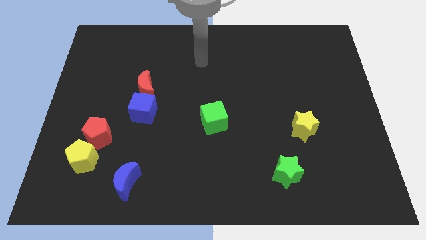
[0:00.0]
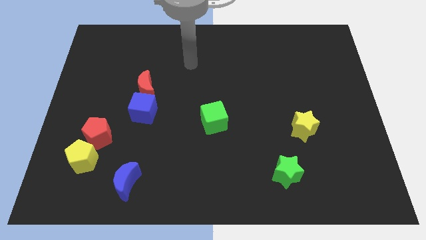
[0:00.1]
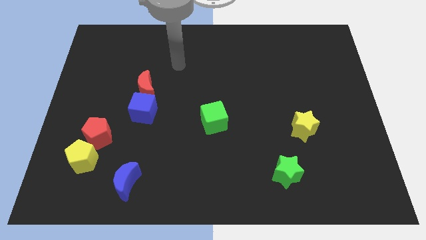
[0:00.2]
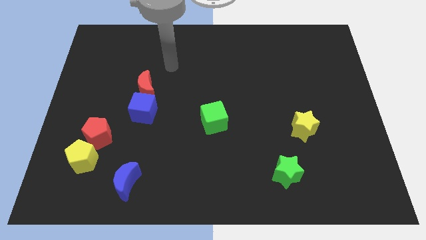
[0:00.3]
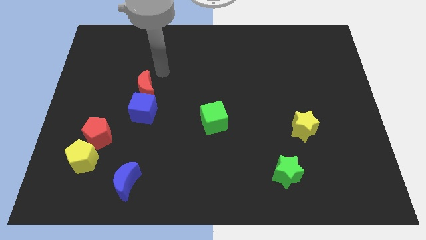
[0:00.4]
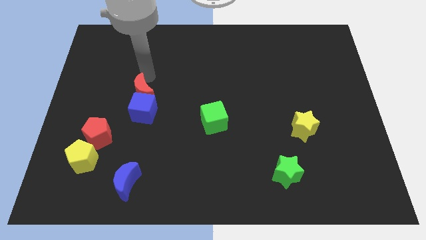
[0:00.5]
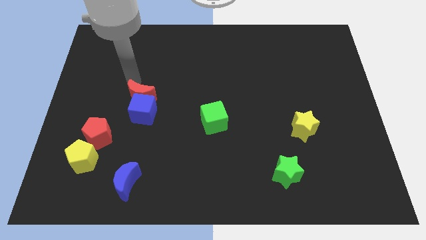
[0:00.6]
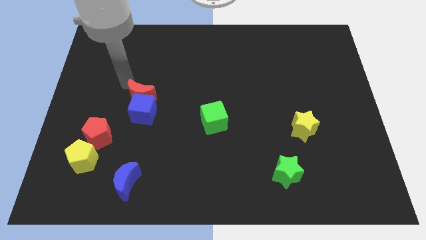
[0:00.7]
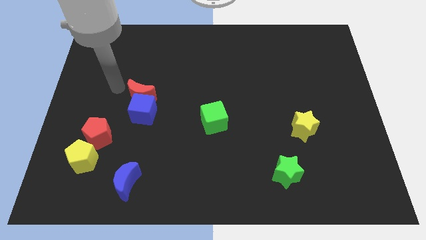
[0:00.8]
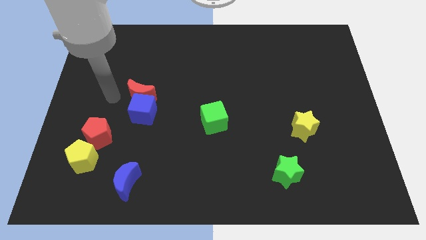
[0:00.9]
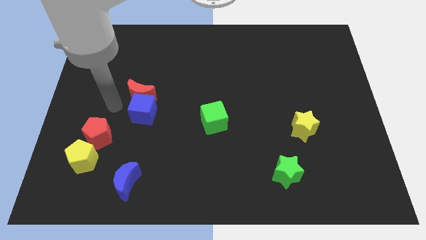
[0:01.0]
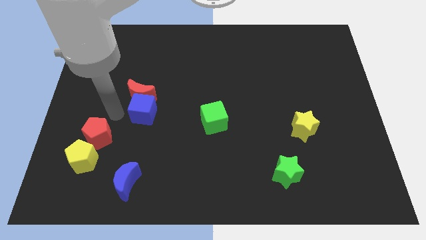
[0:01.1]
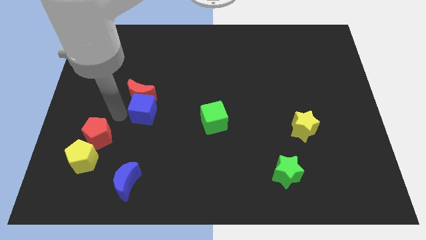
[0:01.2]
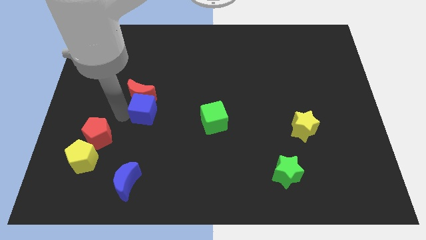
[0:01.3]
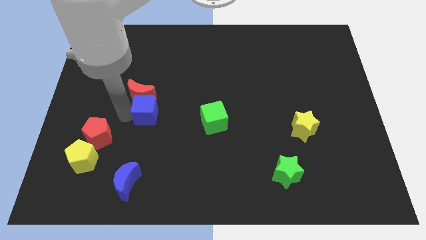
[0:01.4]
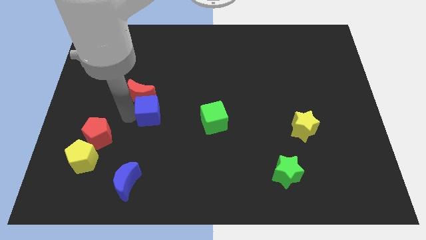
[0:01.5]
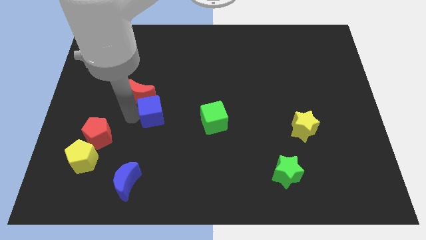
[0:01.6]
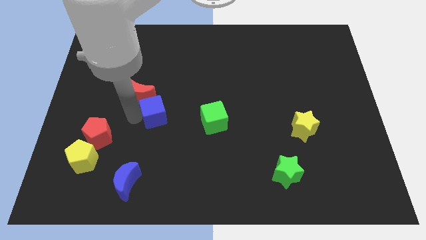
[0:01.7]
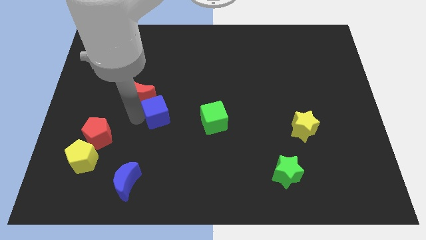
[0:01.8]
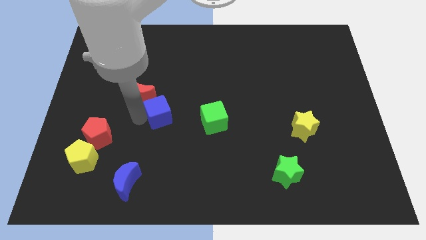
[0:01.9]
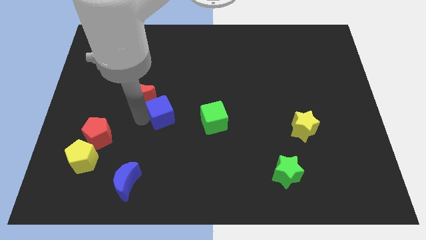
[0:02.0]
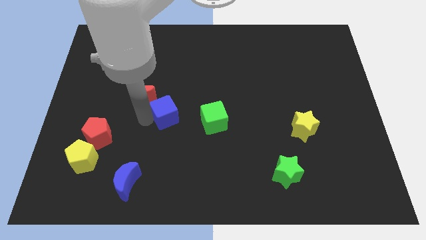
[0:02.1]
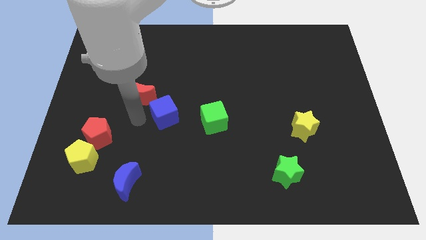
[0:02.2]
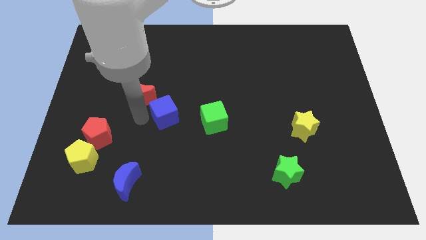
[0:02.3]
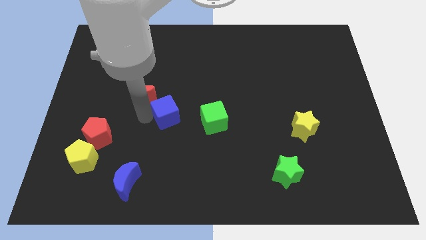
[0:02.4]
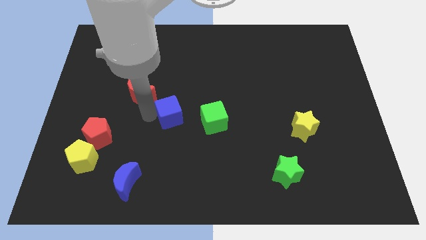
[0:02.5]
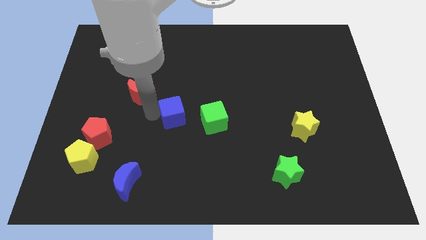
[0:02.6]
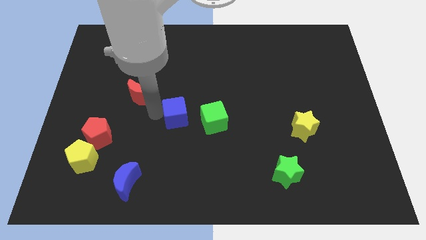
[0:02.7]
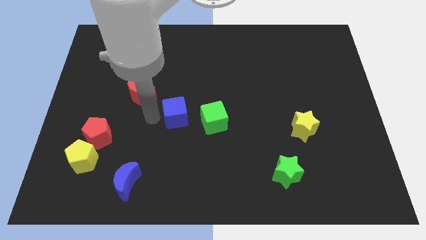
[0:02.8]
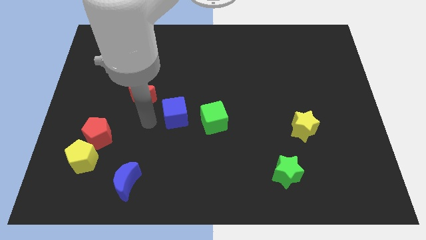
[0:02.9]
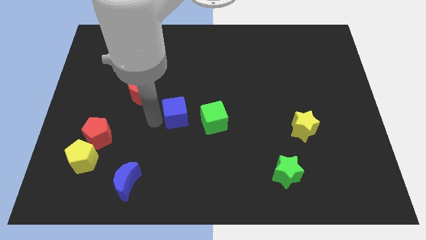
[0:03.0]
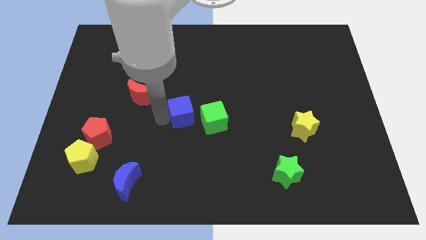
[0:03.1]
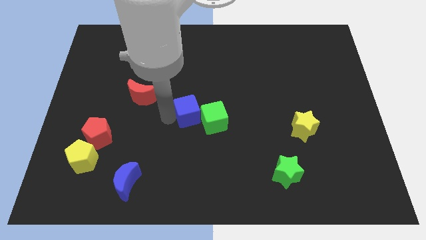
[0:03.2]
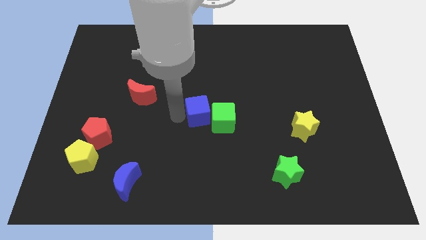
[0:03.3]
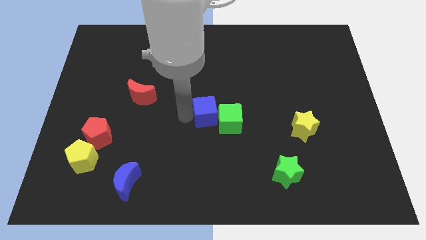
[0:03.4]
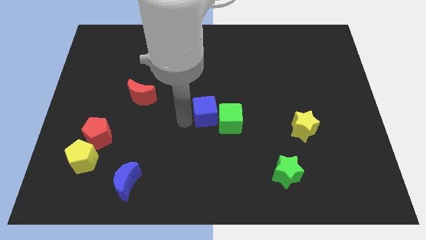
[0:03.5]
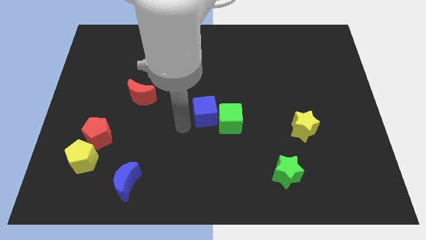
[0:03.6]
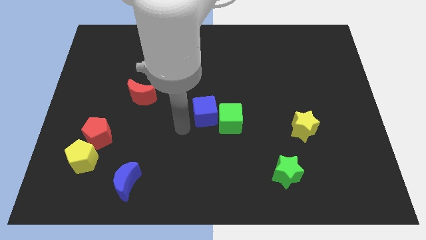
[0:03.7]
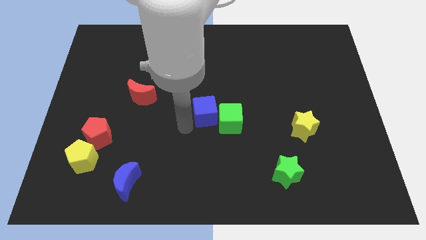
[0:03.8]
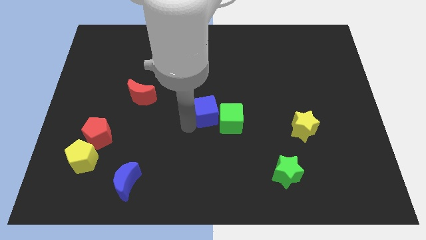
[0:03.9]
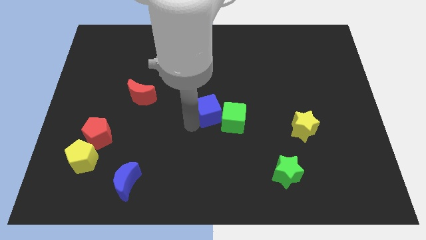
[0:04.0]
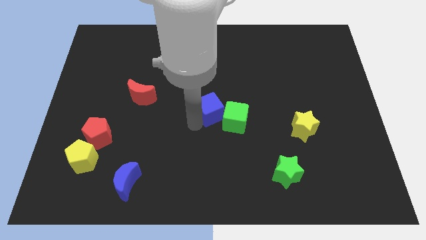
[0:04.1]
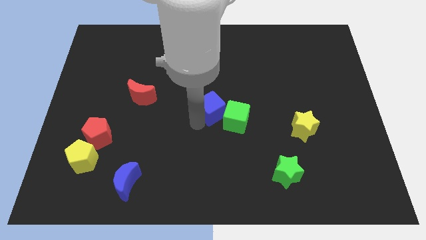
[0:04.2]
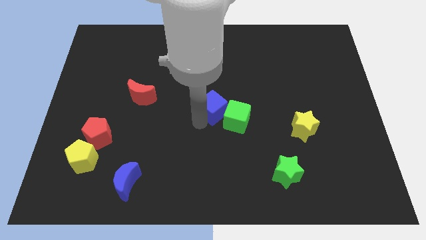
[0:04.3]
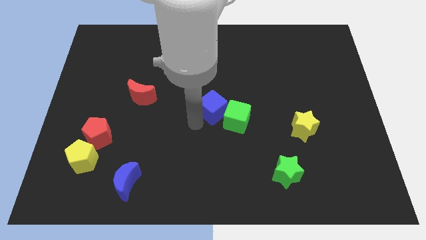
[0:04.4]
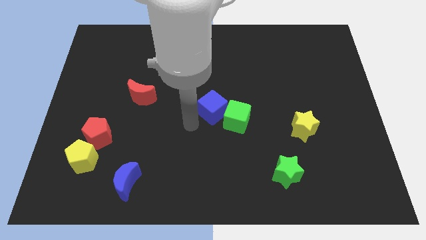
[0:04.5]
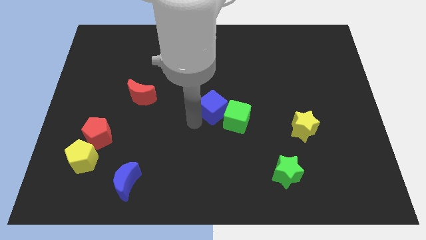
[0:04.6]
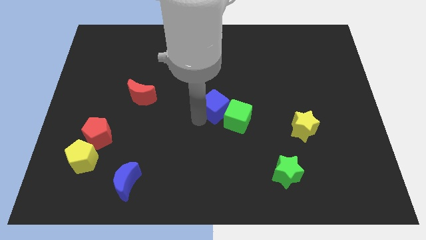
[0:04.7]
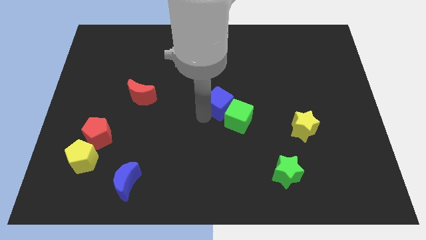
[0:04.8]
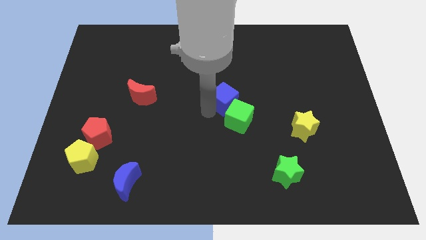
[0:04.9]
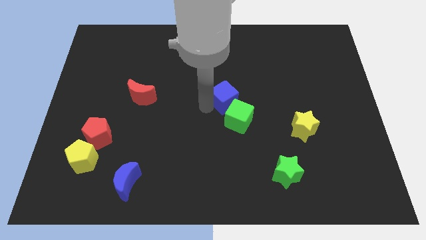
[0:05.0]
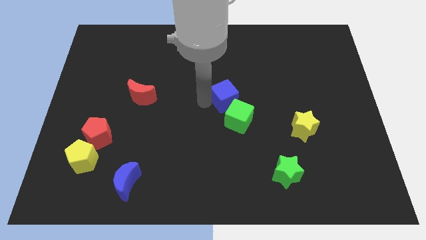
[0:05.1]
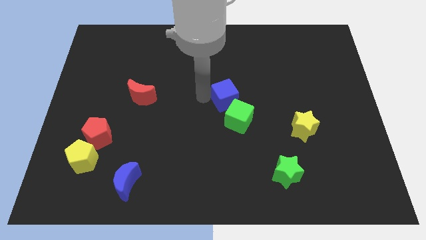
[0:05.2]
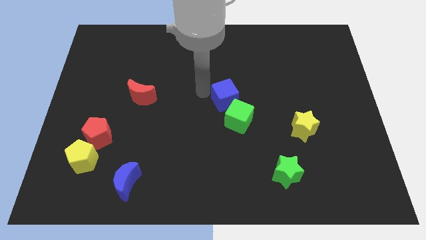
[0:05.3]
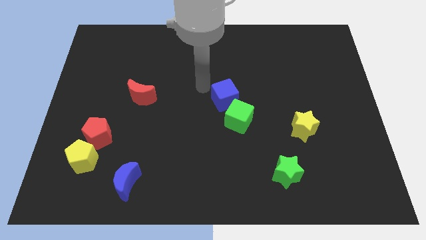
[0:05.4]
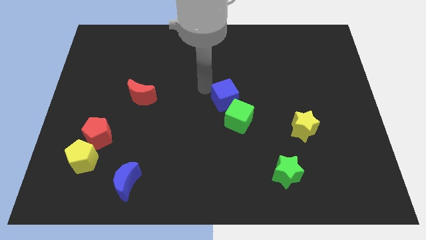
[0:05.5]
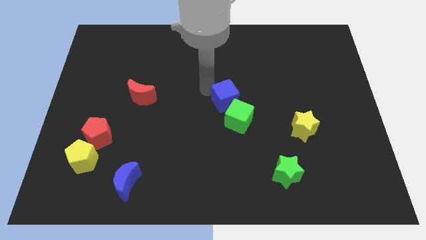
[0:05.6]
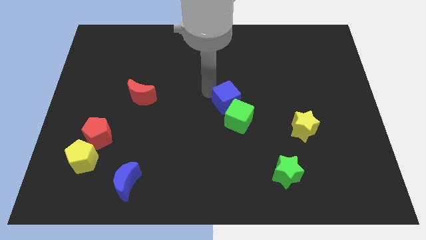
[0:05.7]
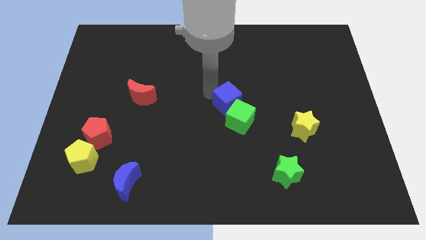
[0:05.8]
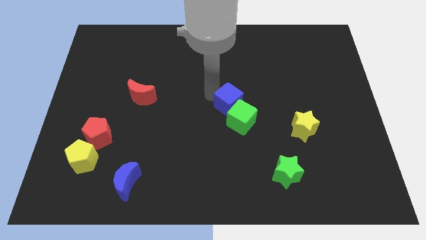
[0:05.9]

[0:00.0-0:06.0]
slide the blue cube right

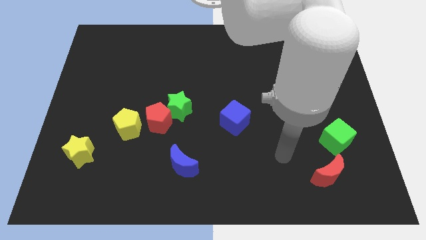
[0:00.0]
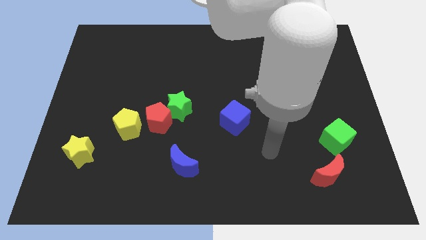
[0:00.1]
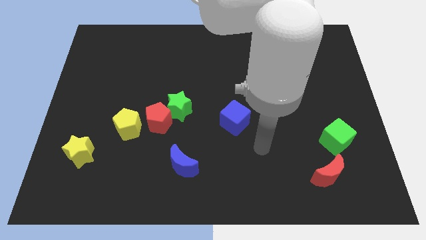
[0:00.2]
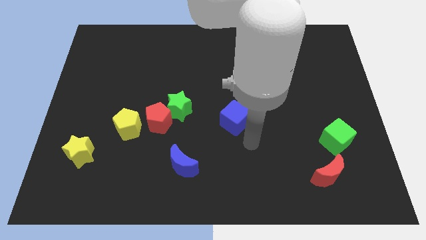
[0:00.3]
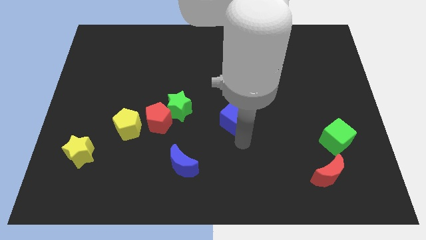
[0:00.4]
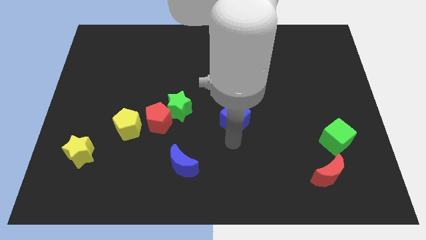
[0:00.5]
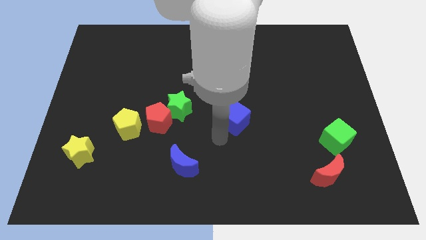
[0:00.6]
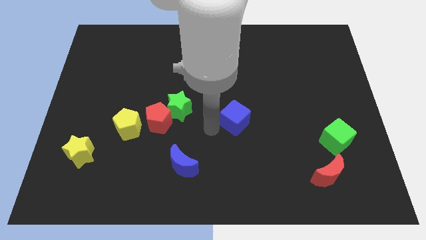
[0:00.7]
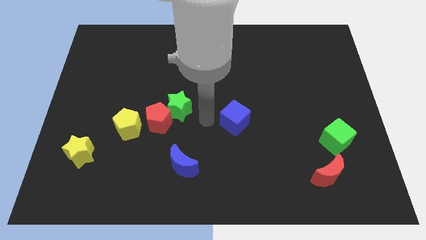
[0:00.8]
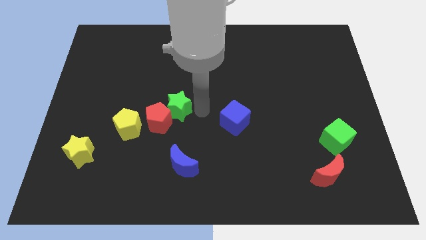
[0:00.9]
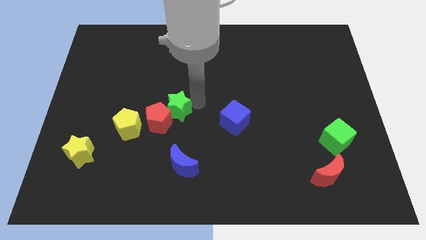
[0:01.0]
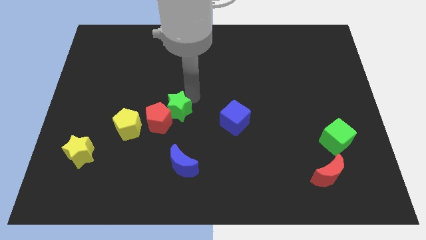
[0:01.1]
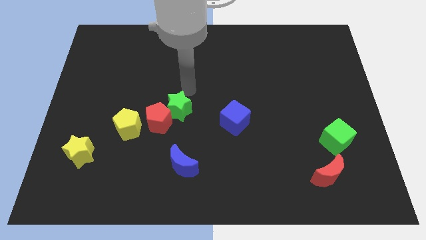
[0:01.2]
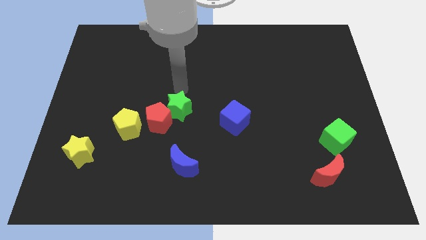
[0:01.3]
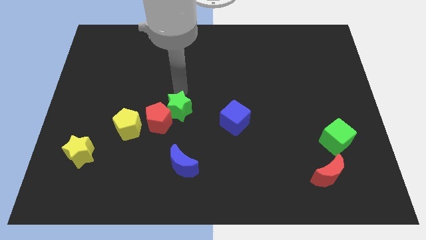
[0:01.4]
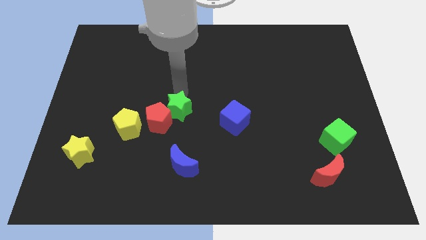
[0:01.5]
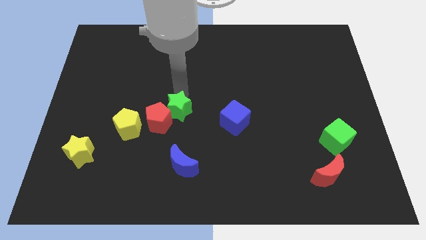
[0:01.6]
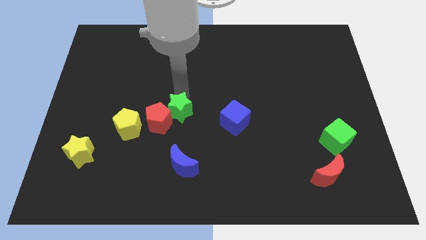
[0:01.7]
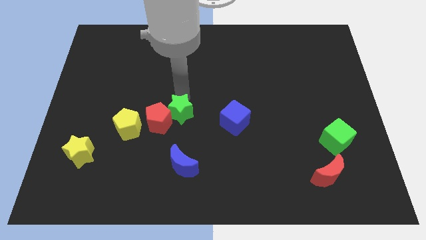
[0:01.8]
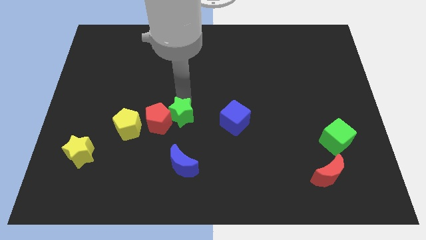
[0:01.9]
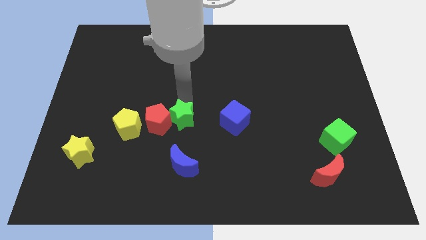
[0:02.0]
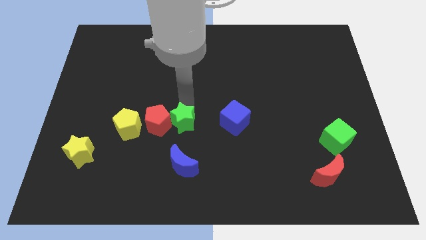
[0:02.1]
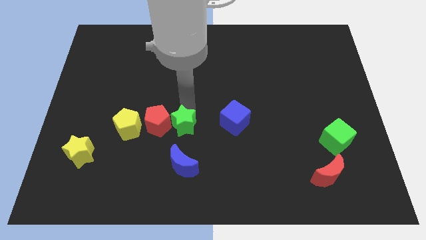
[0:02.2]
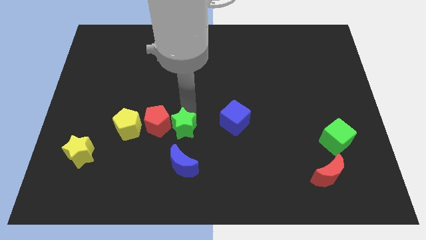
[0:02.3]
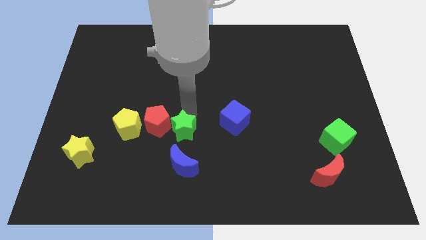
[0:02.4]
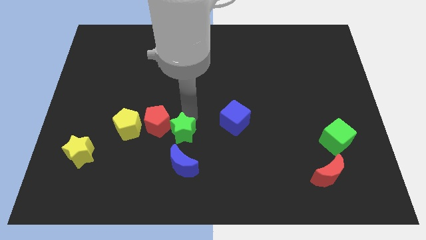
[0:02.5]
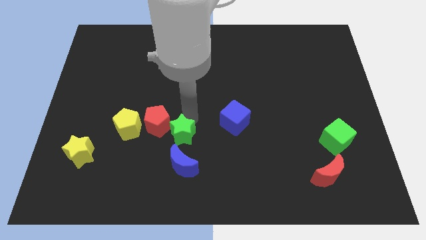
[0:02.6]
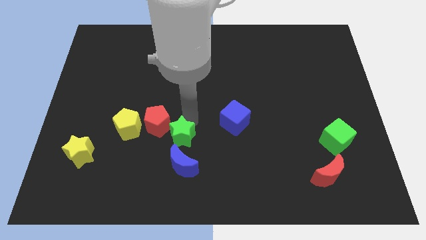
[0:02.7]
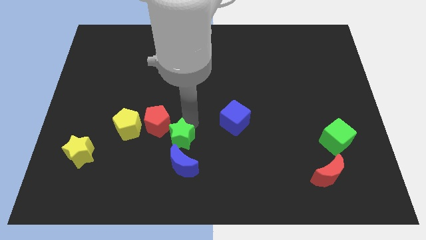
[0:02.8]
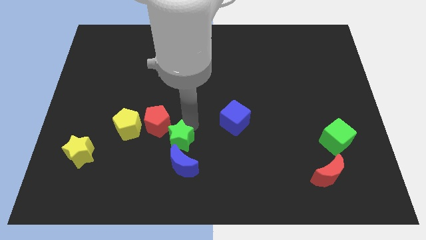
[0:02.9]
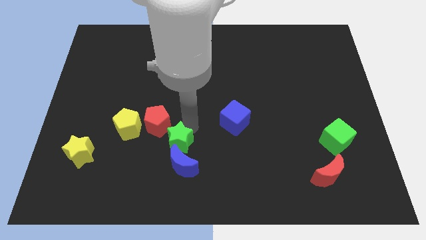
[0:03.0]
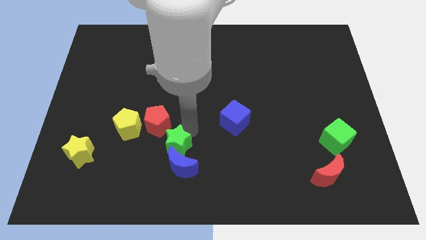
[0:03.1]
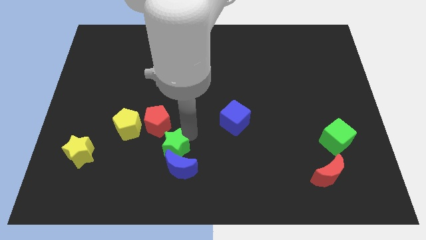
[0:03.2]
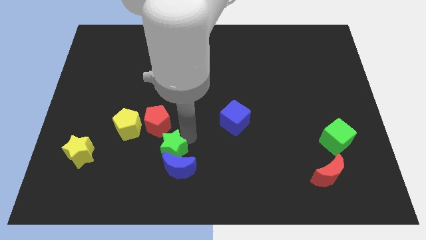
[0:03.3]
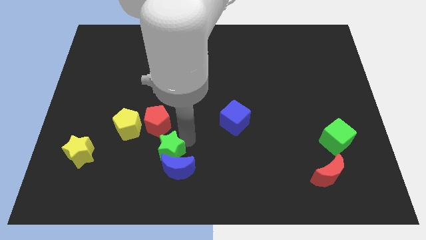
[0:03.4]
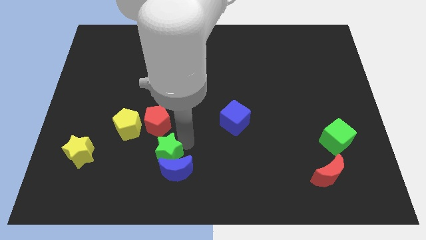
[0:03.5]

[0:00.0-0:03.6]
slightly move the green star down and left diagonally
